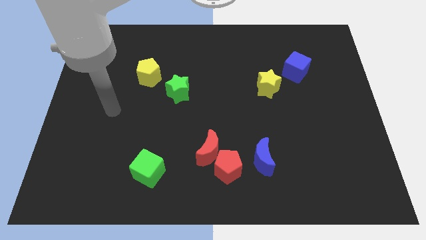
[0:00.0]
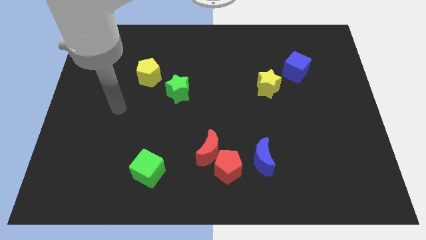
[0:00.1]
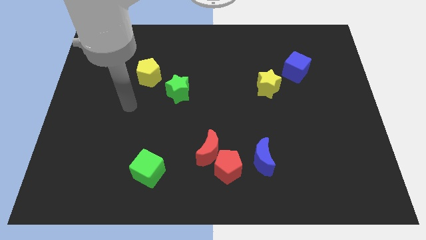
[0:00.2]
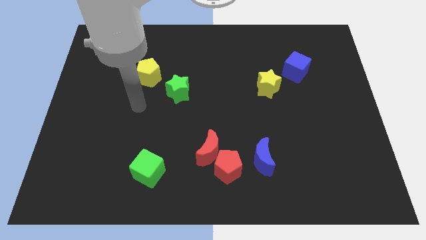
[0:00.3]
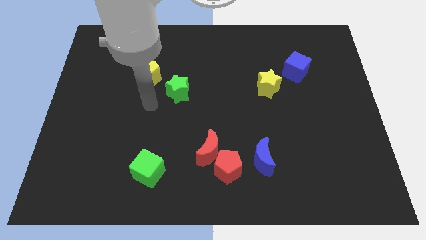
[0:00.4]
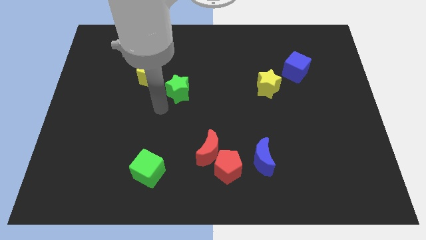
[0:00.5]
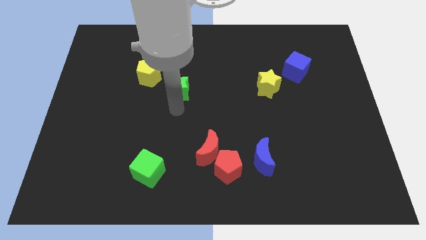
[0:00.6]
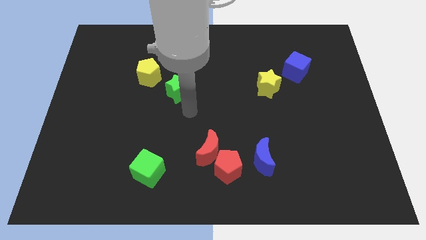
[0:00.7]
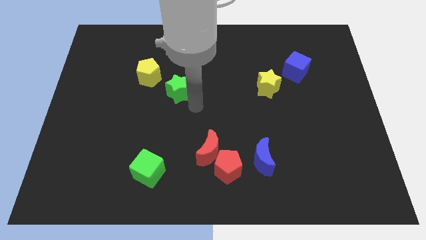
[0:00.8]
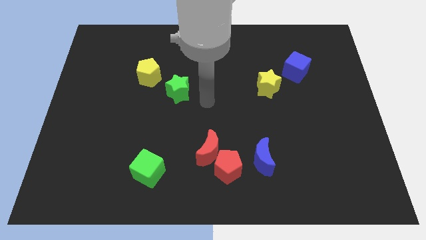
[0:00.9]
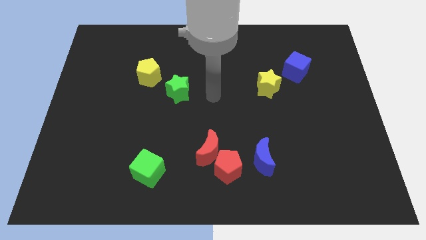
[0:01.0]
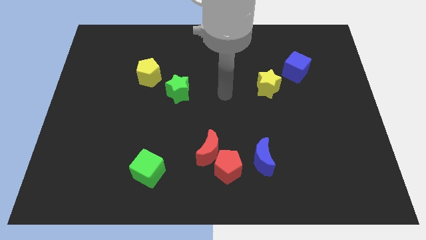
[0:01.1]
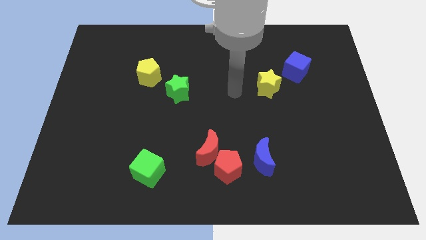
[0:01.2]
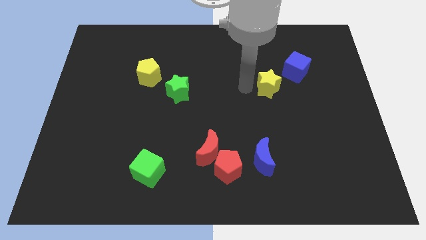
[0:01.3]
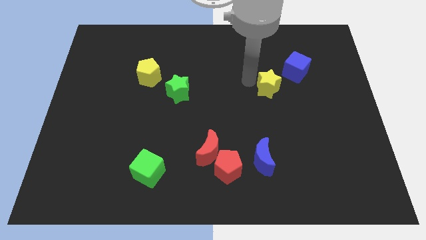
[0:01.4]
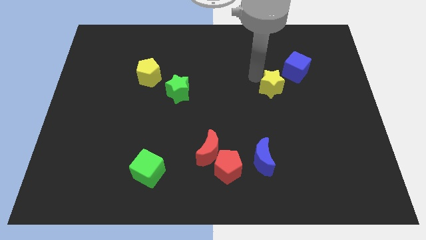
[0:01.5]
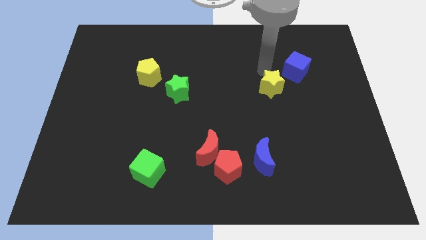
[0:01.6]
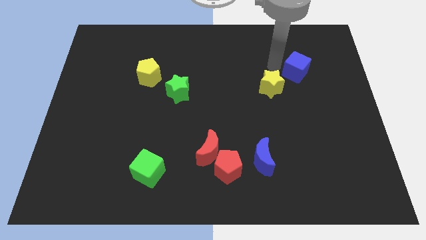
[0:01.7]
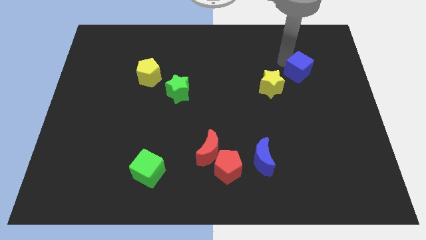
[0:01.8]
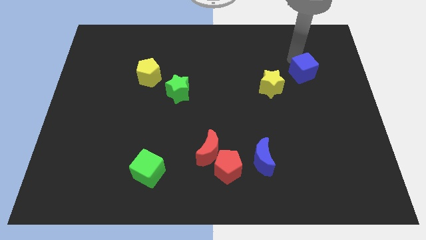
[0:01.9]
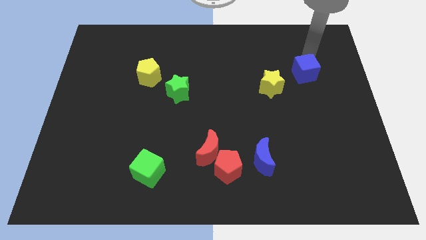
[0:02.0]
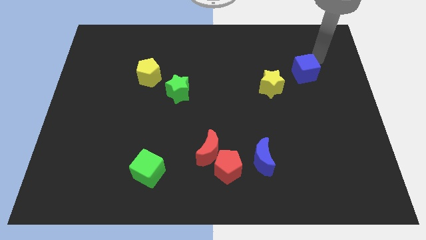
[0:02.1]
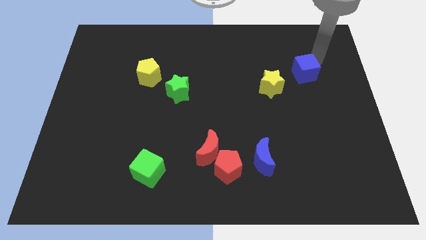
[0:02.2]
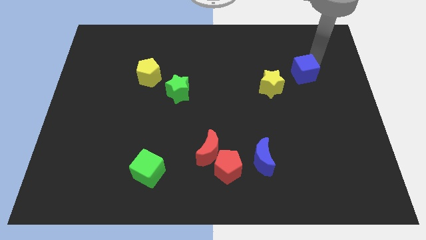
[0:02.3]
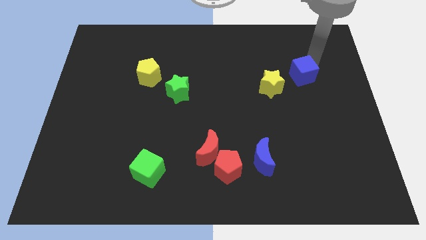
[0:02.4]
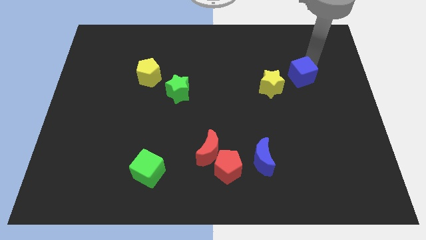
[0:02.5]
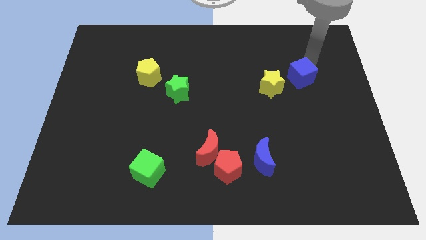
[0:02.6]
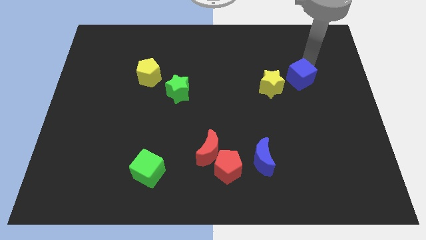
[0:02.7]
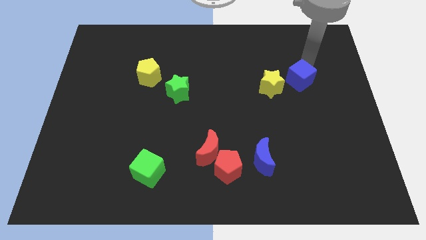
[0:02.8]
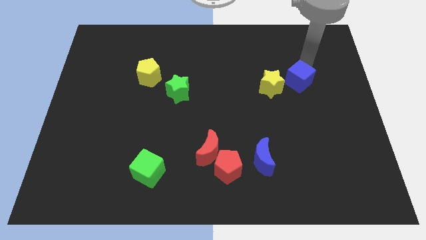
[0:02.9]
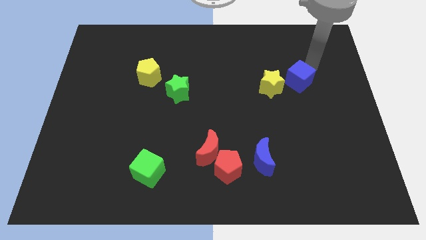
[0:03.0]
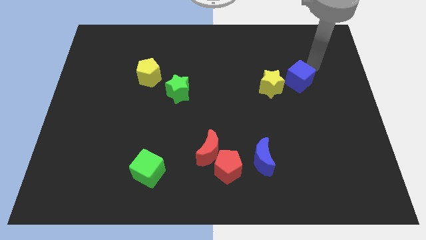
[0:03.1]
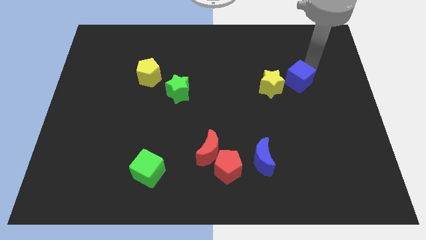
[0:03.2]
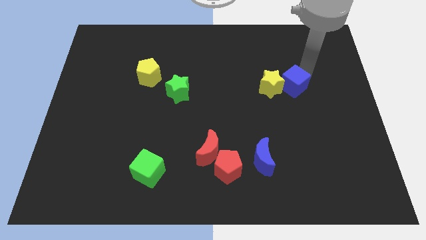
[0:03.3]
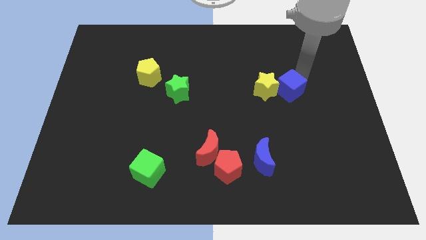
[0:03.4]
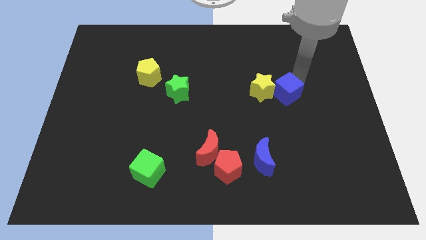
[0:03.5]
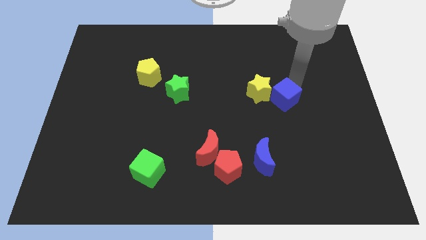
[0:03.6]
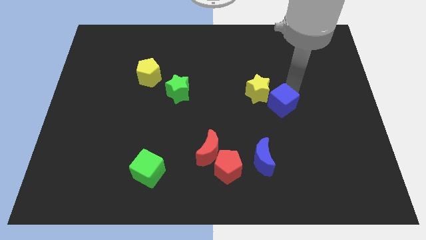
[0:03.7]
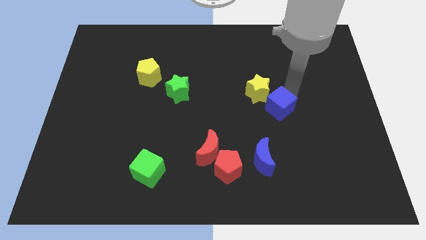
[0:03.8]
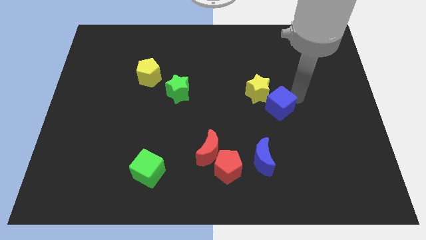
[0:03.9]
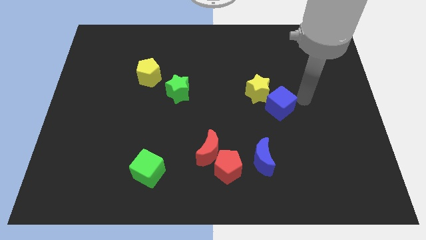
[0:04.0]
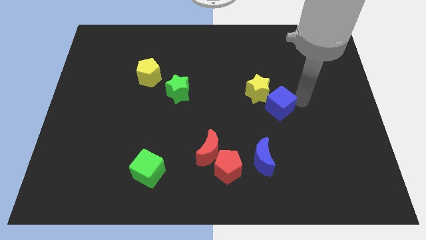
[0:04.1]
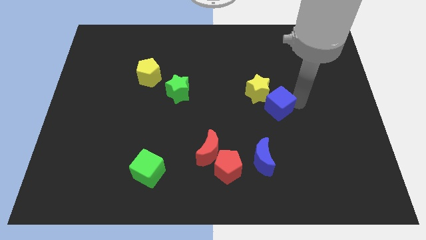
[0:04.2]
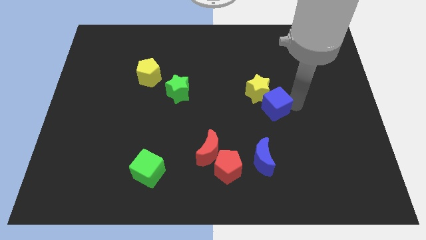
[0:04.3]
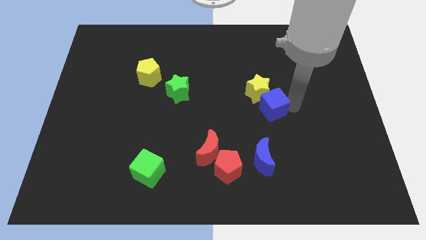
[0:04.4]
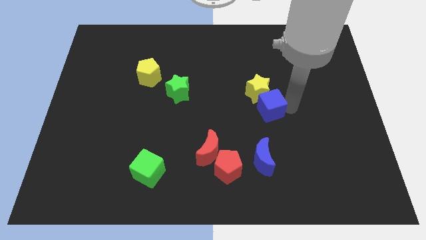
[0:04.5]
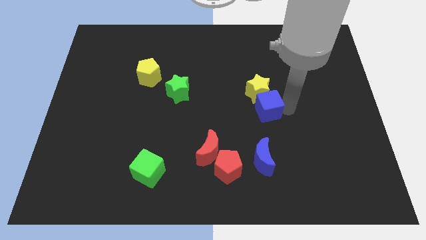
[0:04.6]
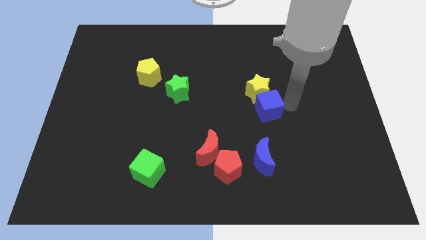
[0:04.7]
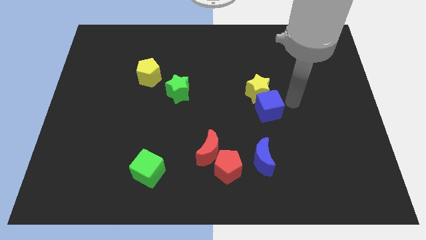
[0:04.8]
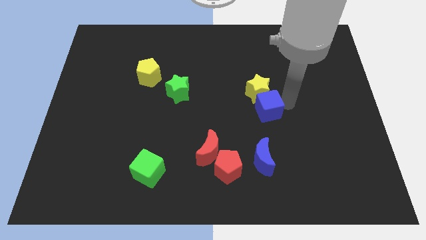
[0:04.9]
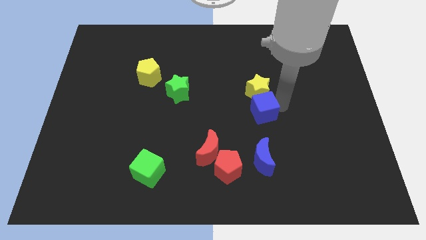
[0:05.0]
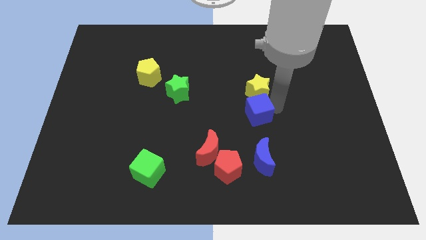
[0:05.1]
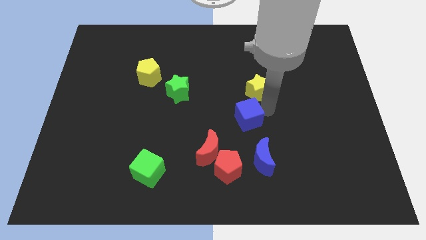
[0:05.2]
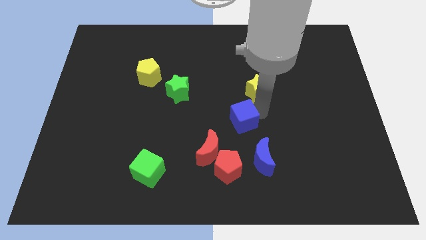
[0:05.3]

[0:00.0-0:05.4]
push the blue cube to the top side of the red pentagon

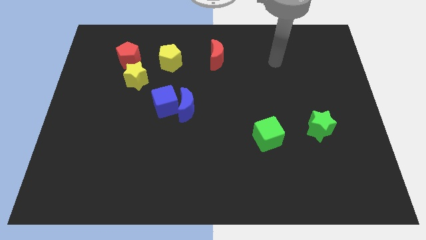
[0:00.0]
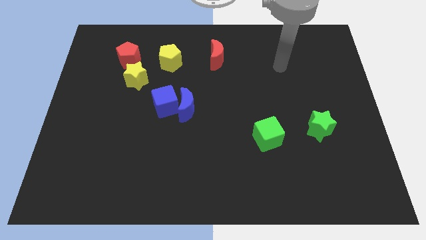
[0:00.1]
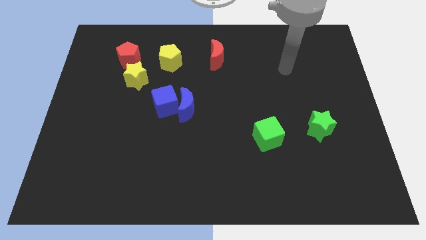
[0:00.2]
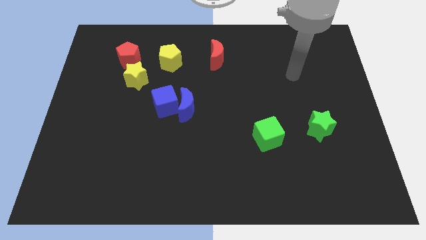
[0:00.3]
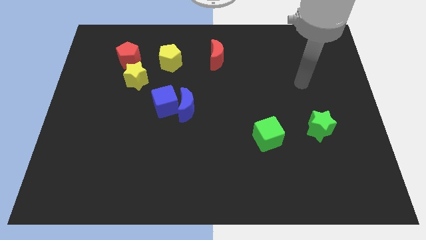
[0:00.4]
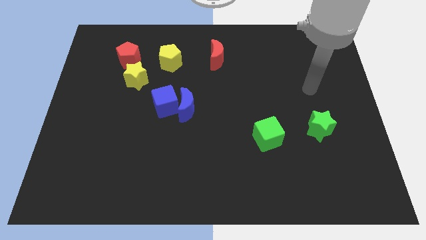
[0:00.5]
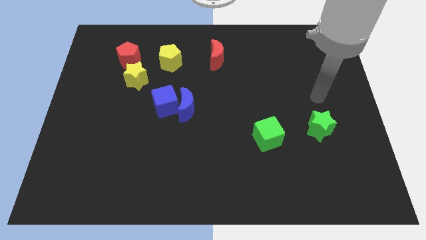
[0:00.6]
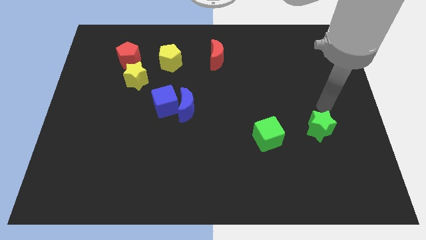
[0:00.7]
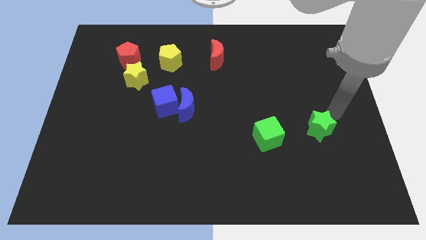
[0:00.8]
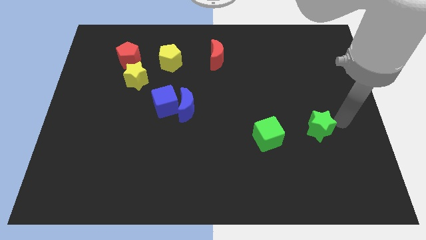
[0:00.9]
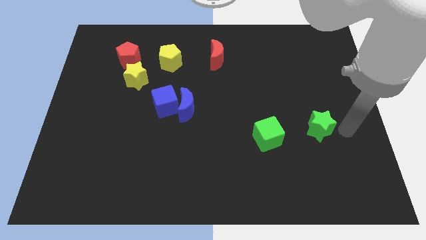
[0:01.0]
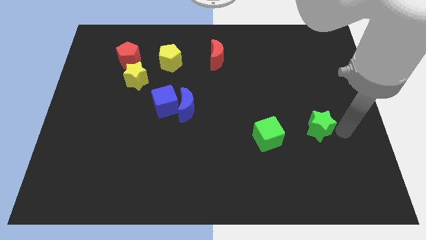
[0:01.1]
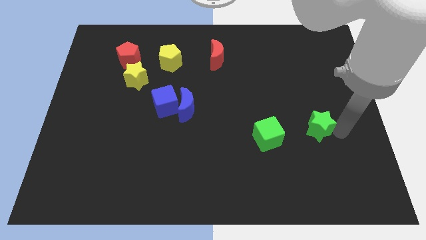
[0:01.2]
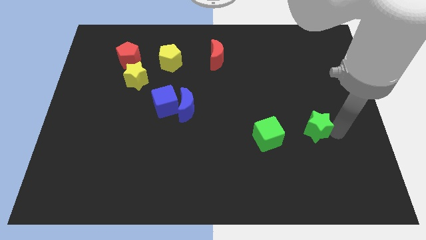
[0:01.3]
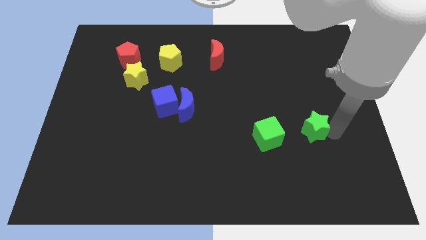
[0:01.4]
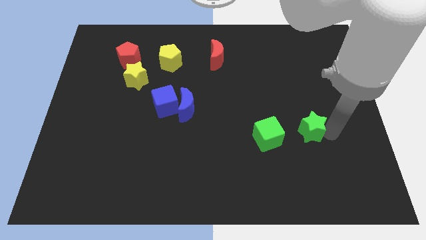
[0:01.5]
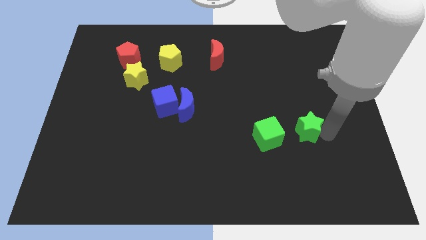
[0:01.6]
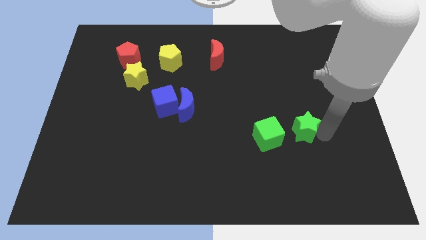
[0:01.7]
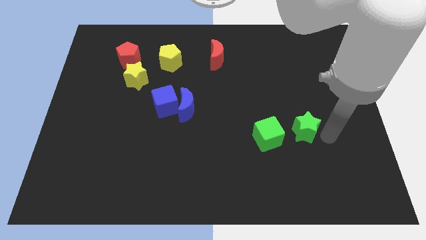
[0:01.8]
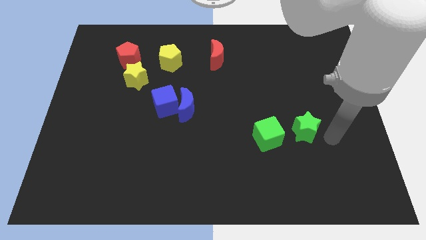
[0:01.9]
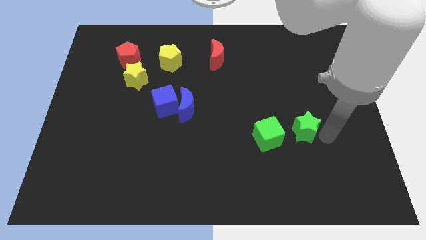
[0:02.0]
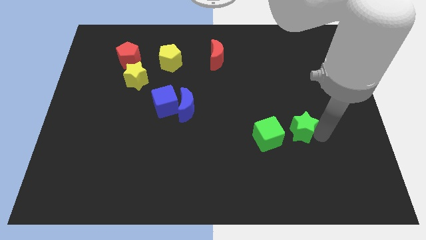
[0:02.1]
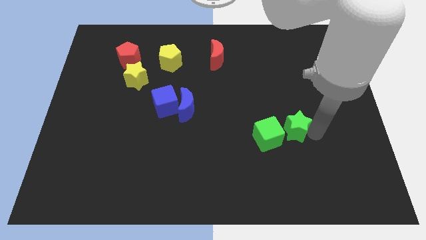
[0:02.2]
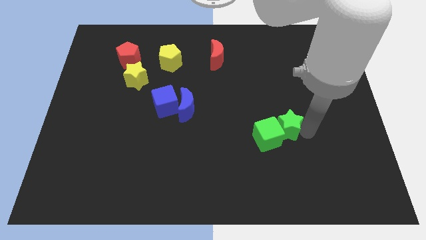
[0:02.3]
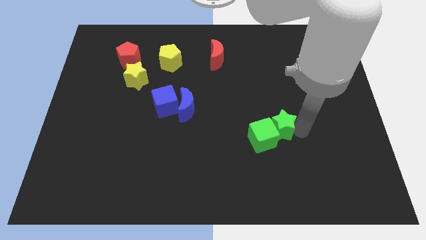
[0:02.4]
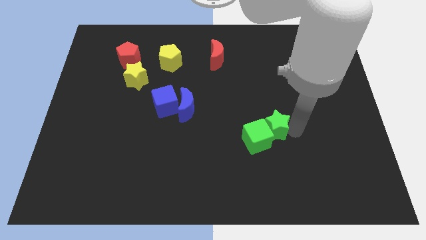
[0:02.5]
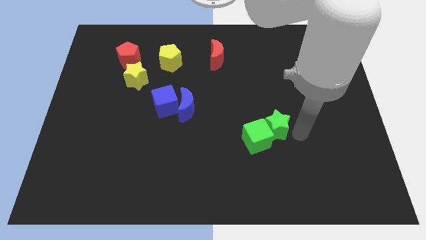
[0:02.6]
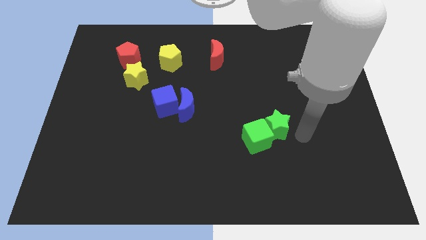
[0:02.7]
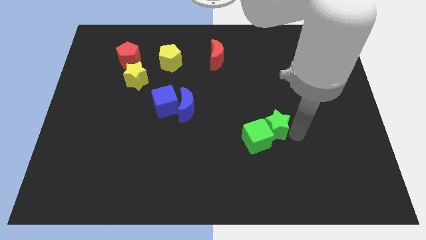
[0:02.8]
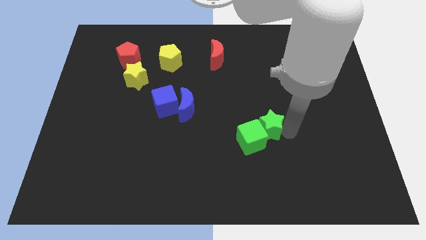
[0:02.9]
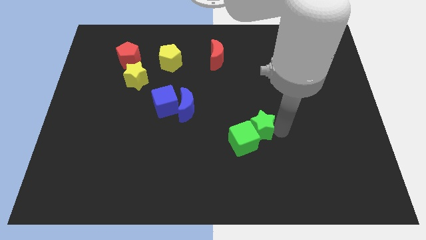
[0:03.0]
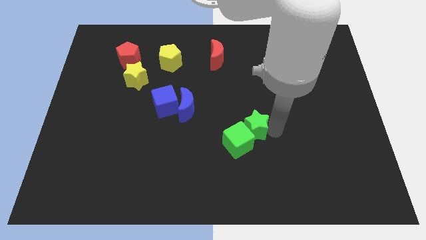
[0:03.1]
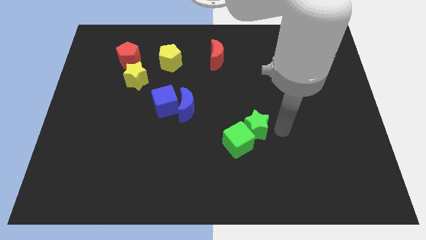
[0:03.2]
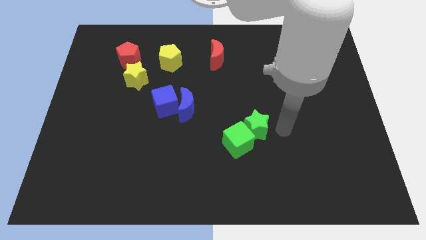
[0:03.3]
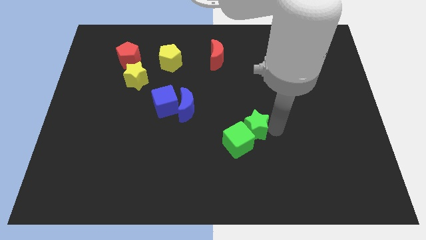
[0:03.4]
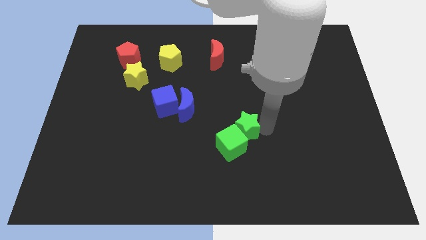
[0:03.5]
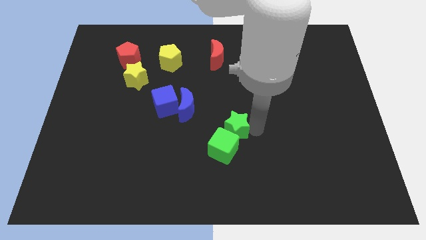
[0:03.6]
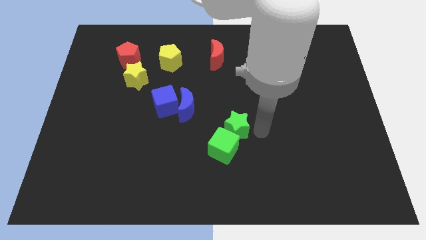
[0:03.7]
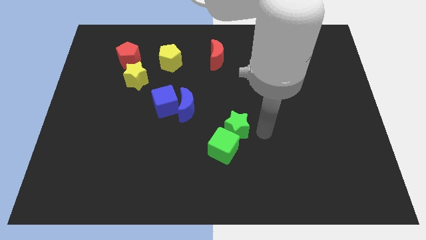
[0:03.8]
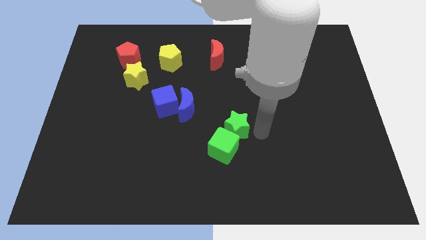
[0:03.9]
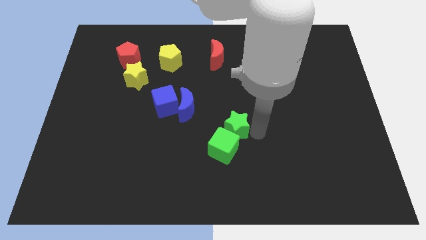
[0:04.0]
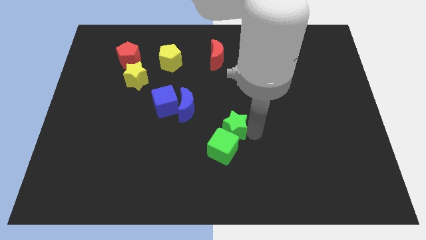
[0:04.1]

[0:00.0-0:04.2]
slide the green star diagonally down and to the right of the blue moon
